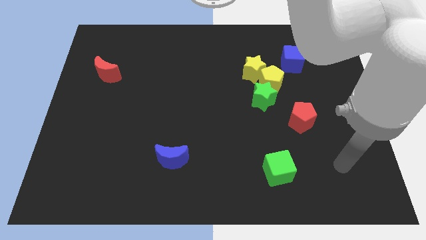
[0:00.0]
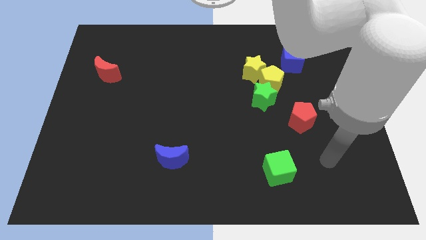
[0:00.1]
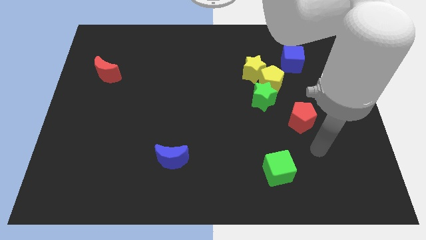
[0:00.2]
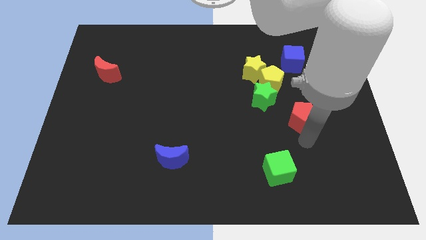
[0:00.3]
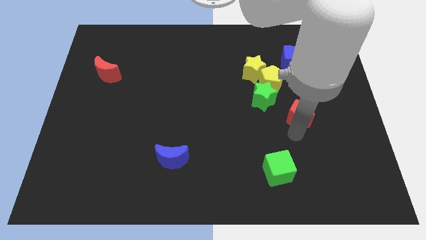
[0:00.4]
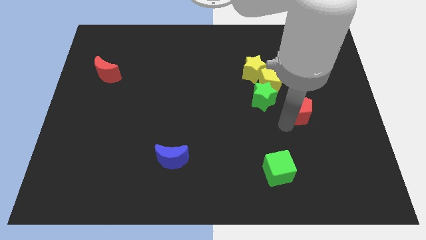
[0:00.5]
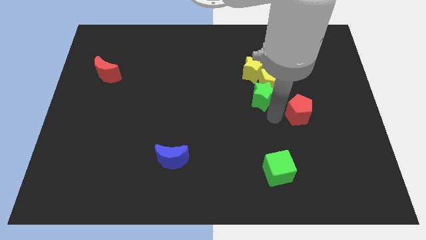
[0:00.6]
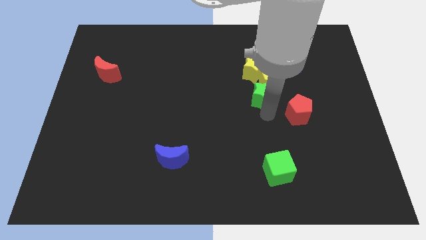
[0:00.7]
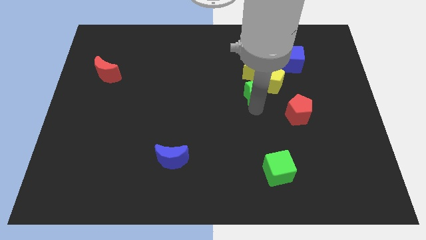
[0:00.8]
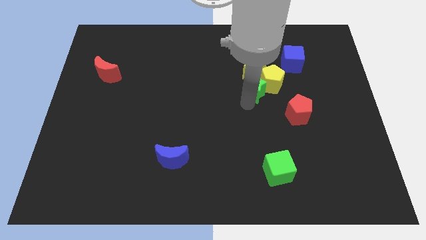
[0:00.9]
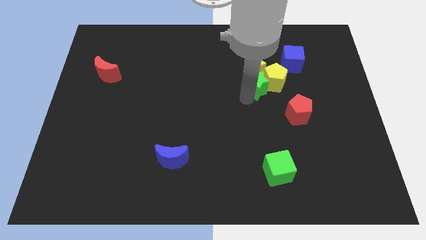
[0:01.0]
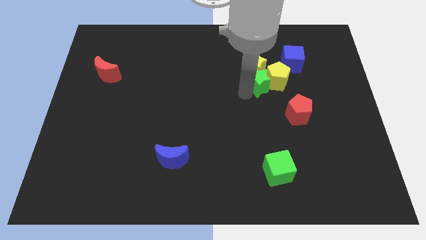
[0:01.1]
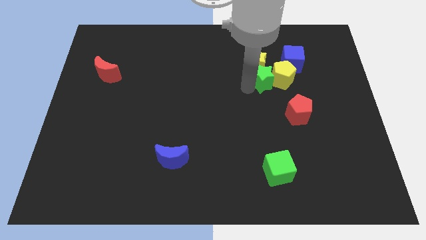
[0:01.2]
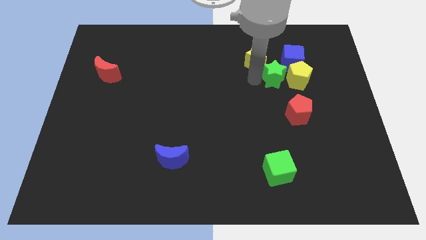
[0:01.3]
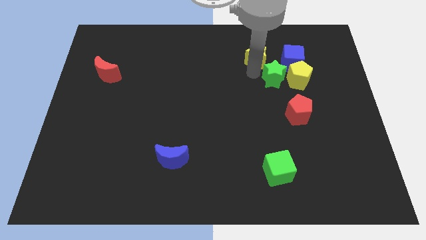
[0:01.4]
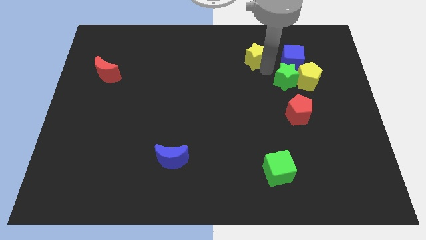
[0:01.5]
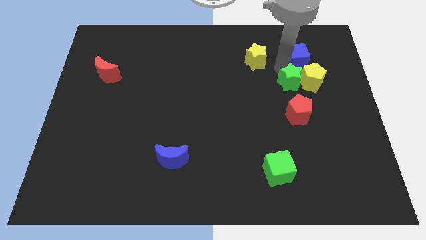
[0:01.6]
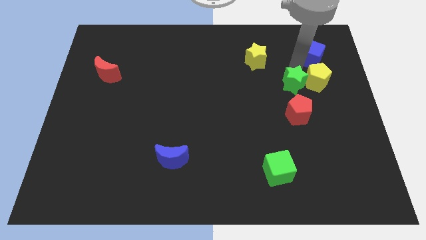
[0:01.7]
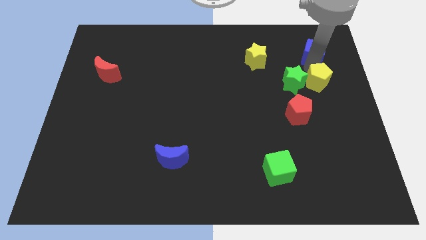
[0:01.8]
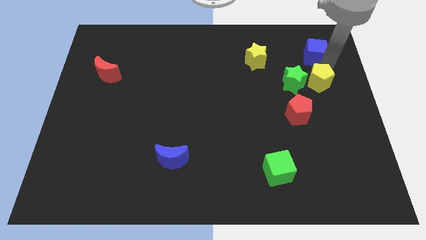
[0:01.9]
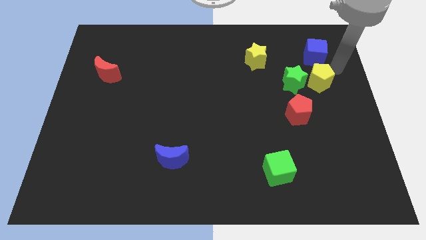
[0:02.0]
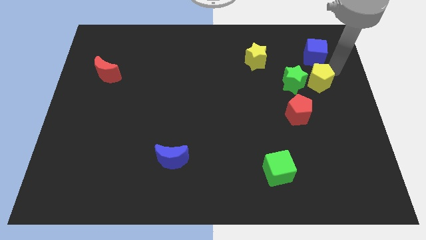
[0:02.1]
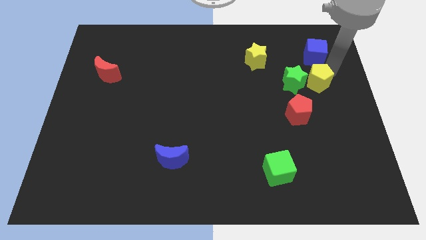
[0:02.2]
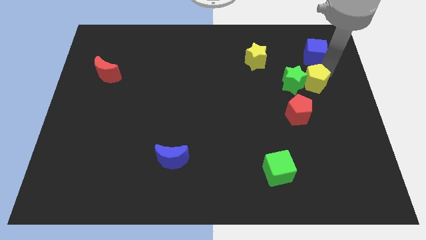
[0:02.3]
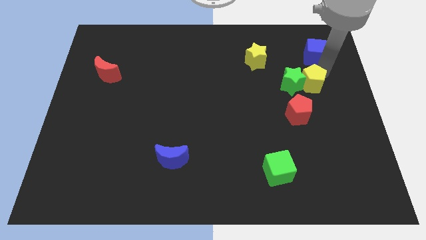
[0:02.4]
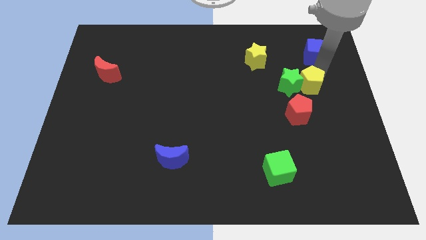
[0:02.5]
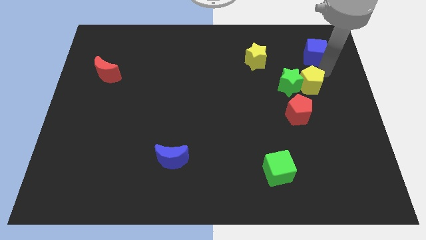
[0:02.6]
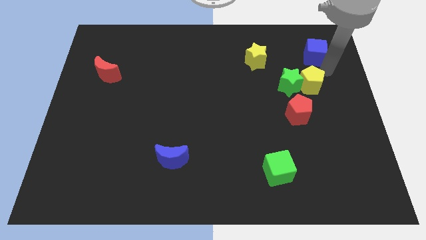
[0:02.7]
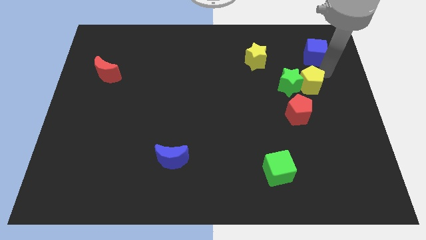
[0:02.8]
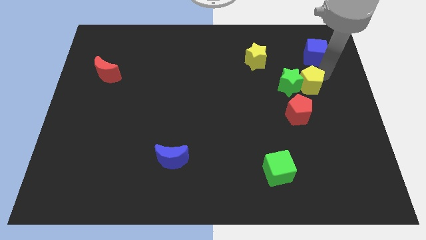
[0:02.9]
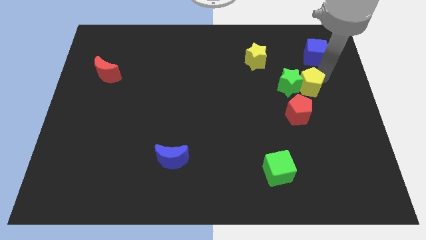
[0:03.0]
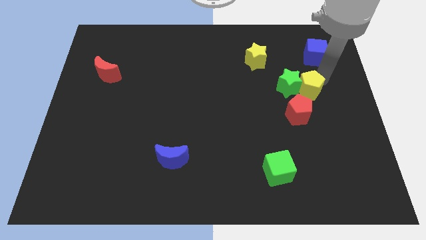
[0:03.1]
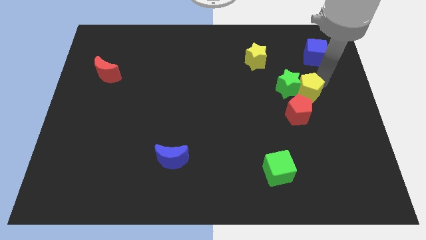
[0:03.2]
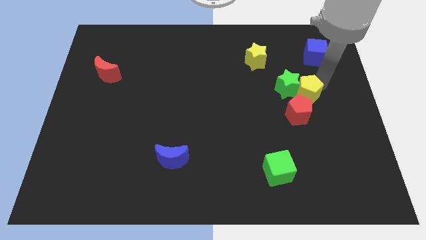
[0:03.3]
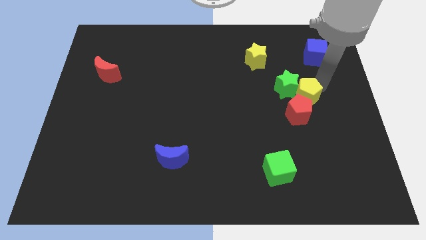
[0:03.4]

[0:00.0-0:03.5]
pull the yellow pentagon apart from the group of blocks

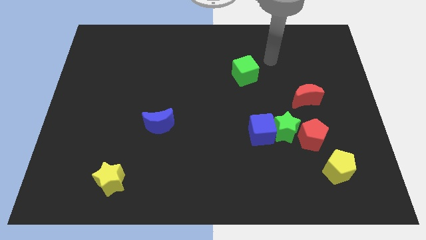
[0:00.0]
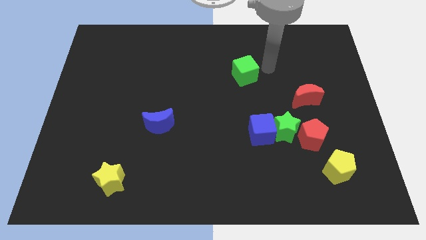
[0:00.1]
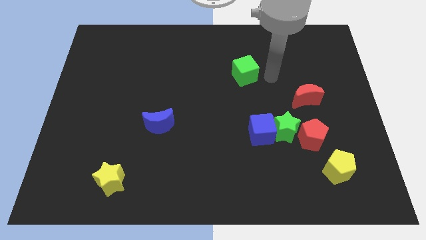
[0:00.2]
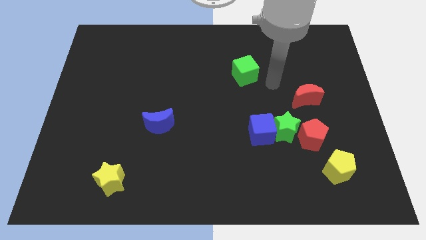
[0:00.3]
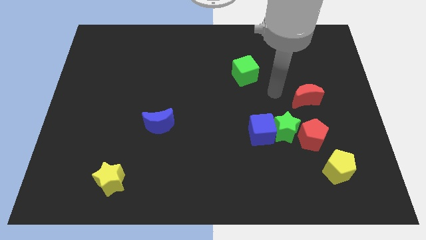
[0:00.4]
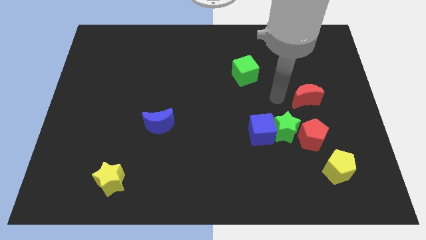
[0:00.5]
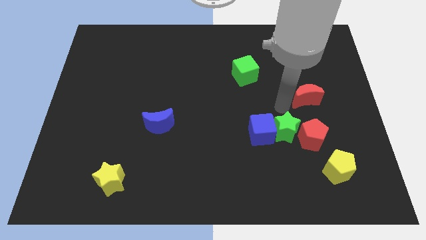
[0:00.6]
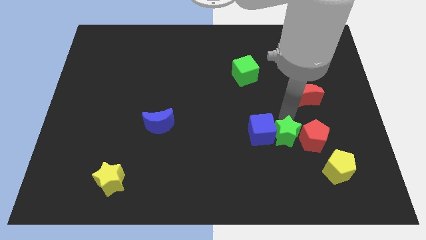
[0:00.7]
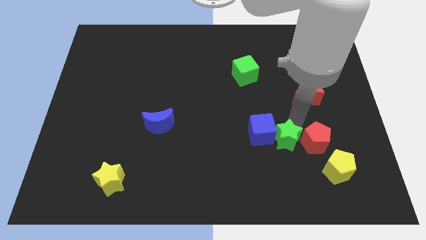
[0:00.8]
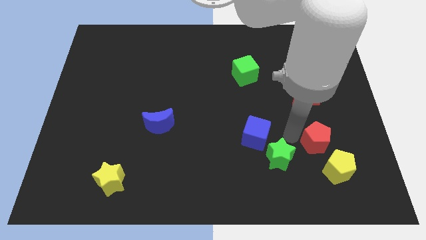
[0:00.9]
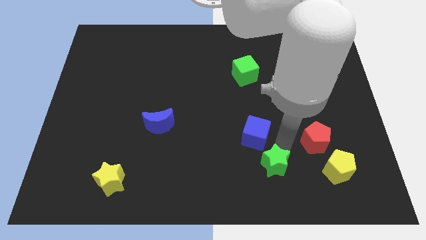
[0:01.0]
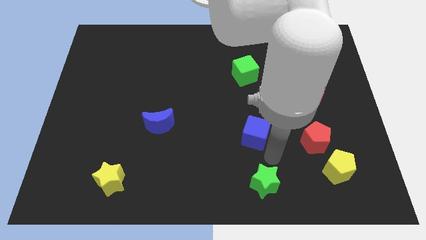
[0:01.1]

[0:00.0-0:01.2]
separate the blue cube from the green star

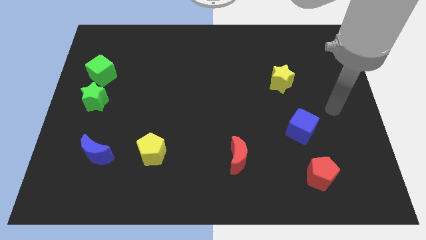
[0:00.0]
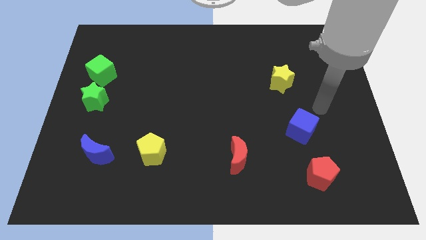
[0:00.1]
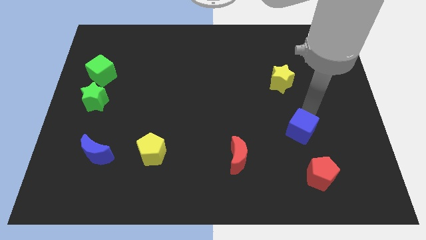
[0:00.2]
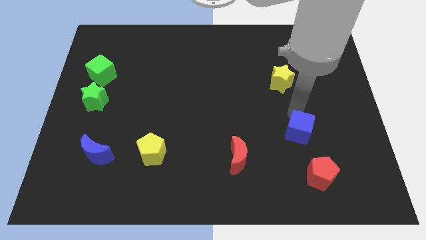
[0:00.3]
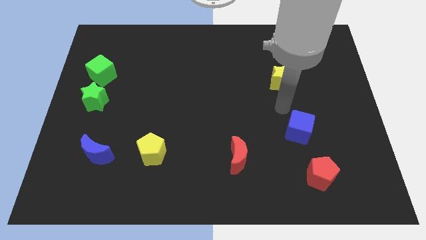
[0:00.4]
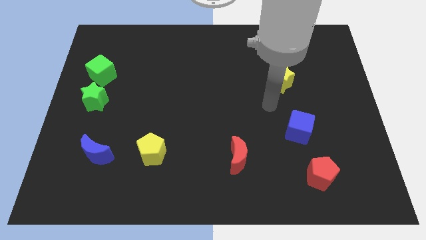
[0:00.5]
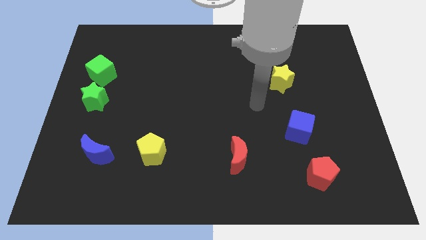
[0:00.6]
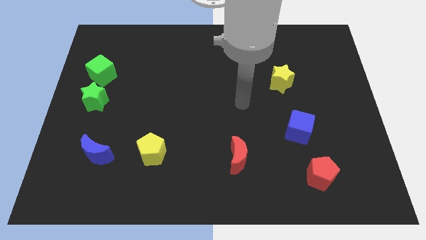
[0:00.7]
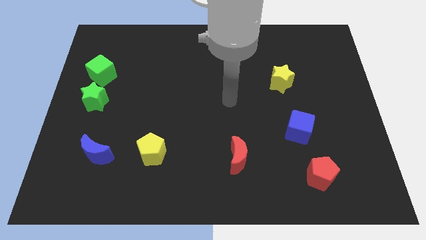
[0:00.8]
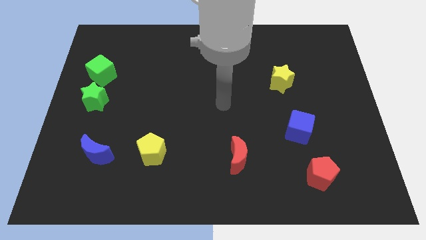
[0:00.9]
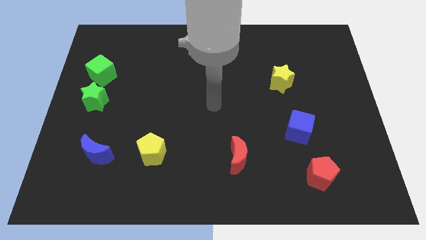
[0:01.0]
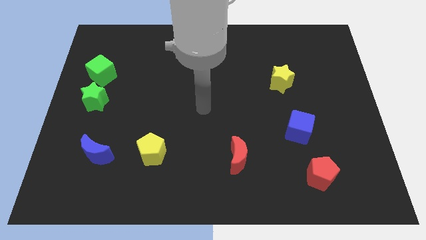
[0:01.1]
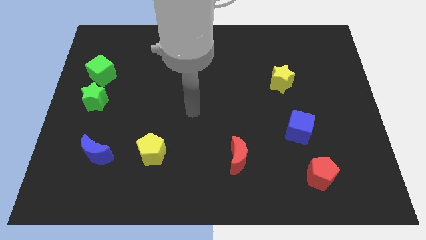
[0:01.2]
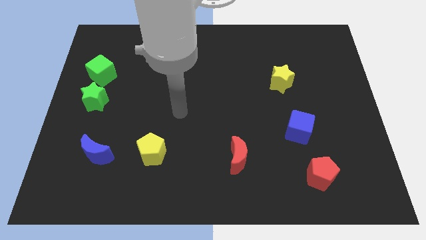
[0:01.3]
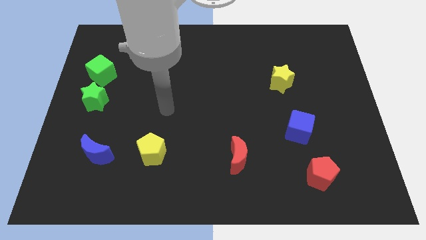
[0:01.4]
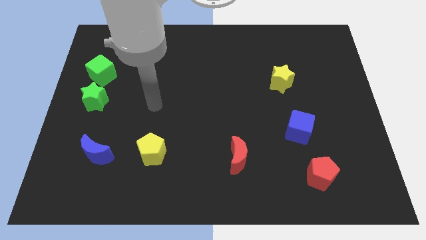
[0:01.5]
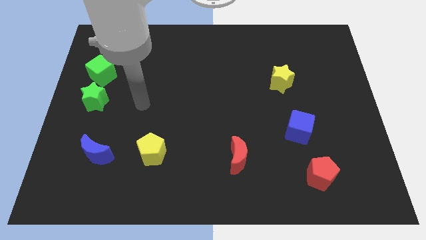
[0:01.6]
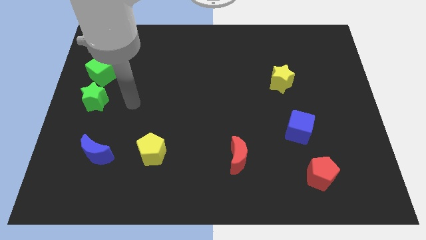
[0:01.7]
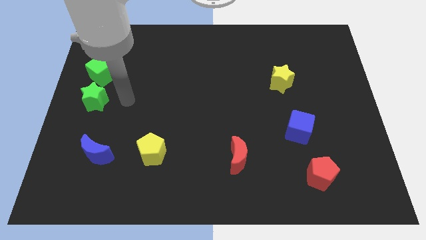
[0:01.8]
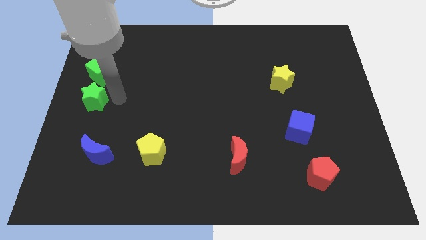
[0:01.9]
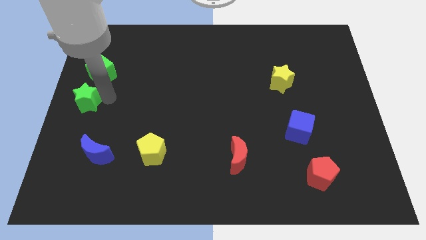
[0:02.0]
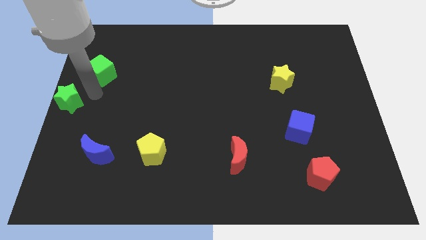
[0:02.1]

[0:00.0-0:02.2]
move the green cube away from the green star

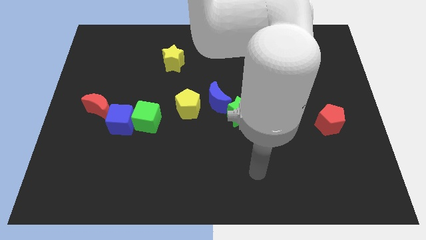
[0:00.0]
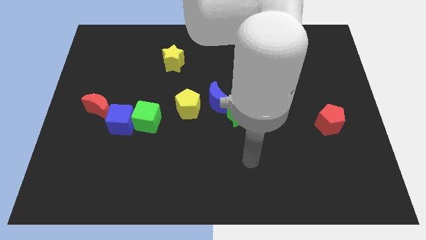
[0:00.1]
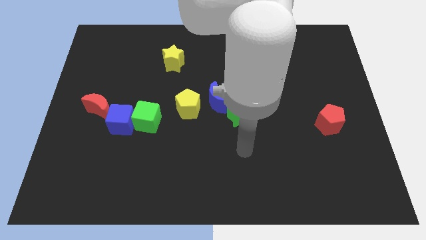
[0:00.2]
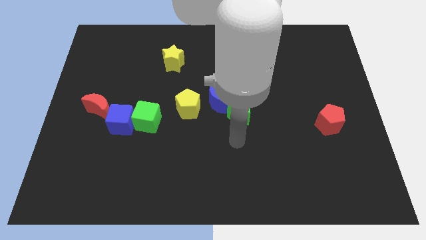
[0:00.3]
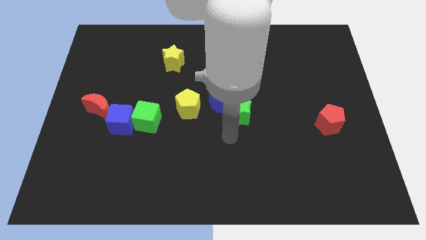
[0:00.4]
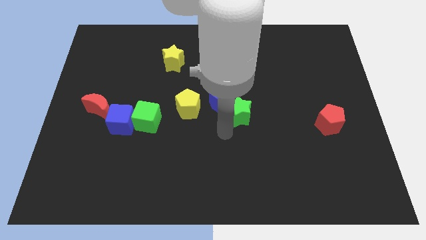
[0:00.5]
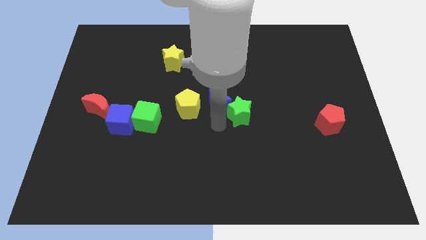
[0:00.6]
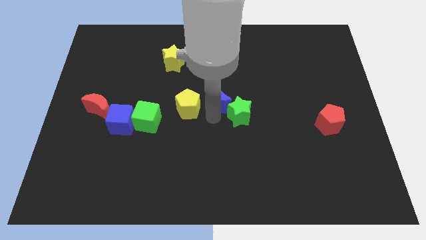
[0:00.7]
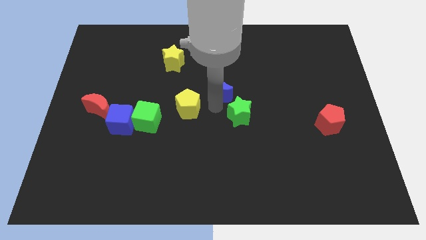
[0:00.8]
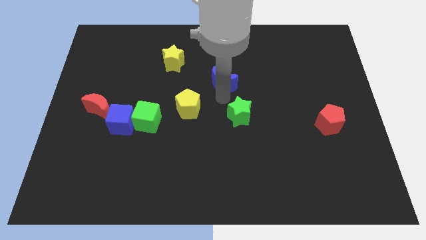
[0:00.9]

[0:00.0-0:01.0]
pull the green star apart from the blue moon

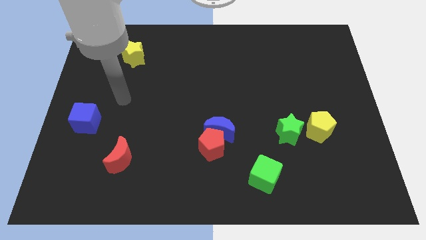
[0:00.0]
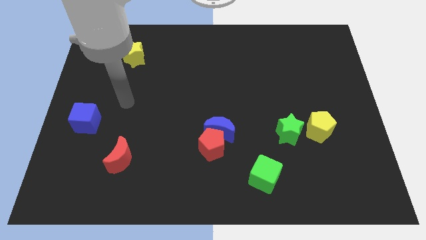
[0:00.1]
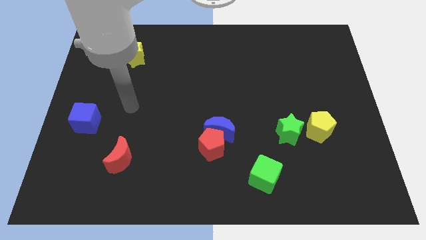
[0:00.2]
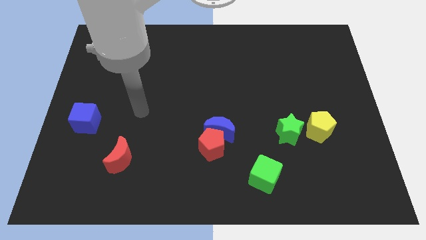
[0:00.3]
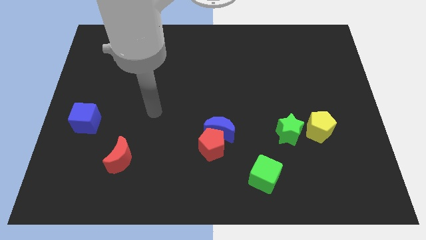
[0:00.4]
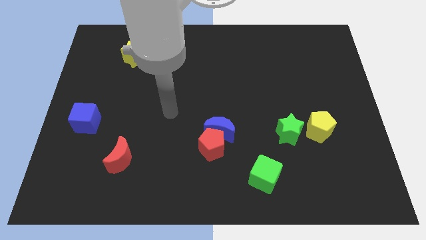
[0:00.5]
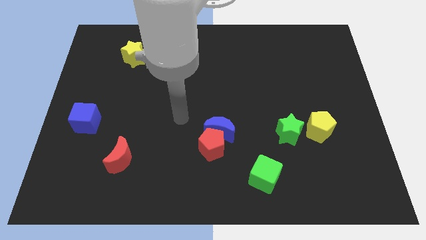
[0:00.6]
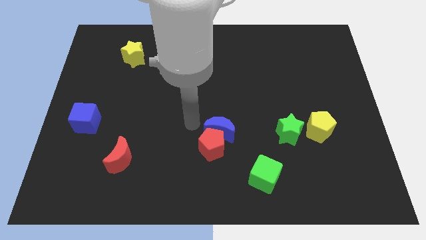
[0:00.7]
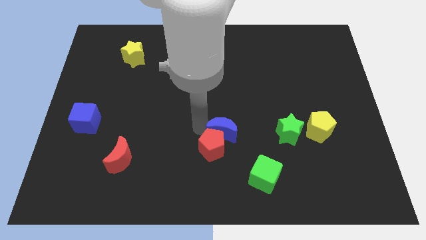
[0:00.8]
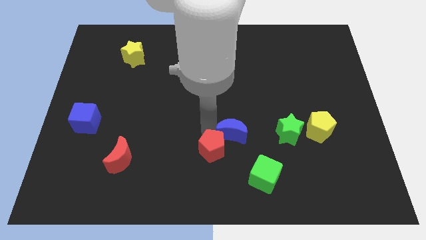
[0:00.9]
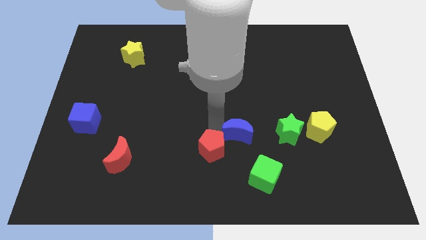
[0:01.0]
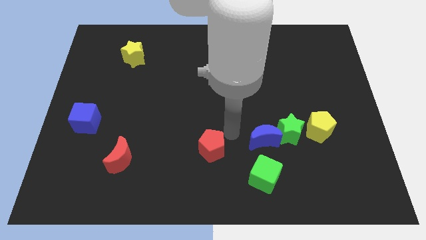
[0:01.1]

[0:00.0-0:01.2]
pull the red pentagon apart from the blue moon

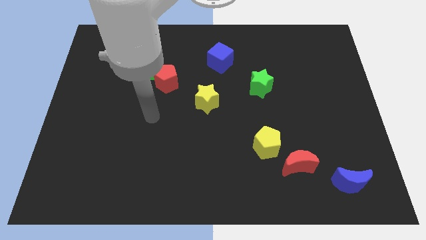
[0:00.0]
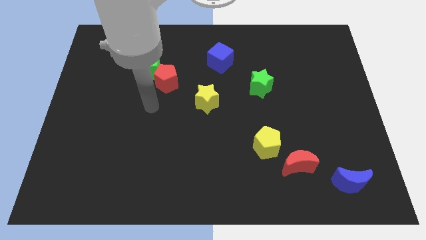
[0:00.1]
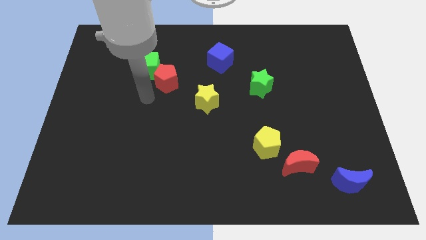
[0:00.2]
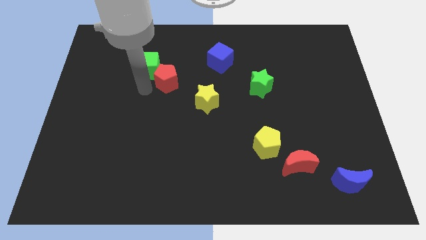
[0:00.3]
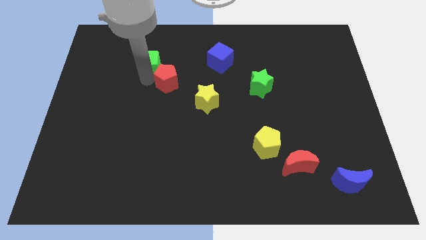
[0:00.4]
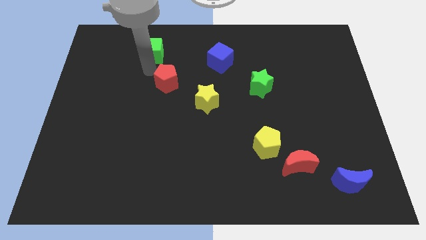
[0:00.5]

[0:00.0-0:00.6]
move the red pentagon away from the green cube
